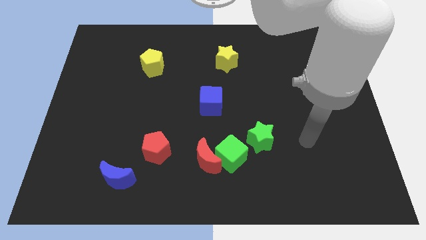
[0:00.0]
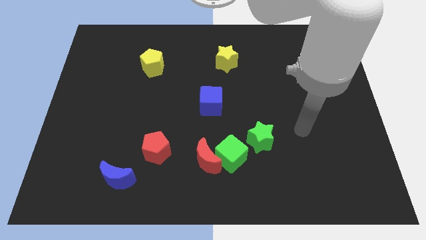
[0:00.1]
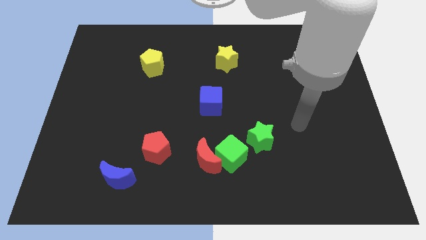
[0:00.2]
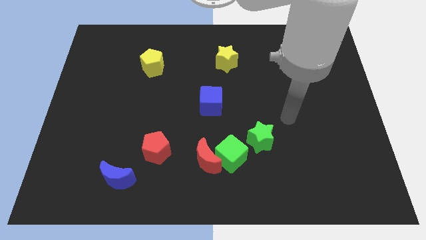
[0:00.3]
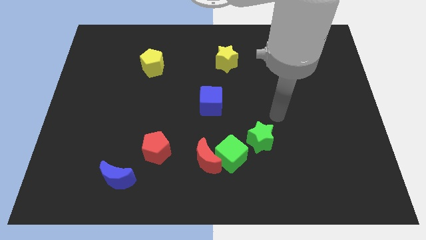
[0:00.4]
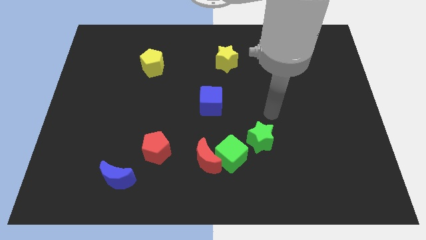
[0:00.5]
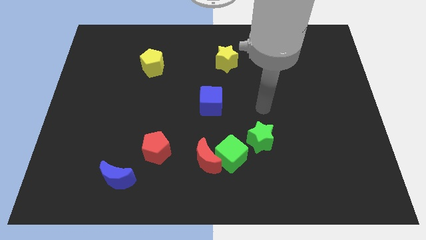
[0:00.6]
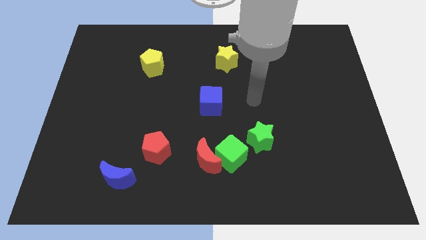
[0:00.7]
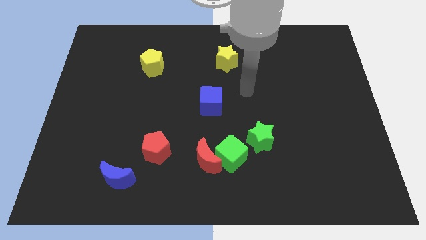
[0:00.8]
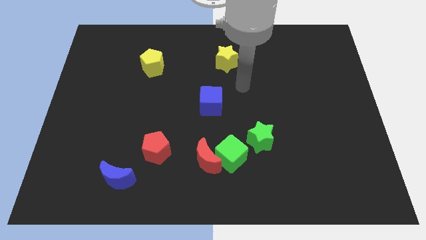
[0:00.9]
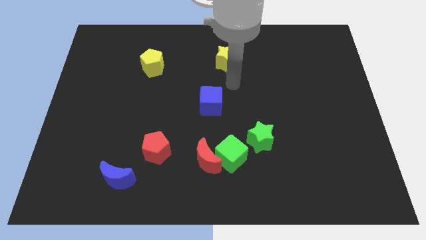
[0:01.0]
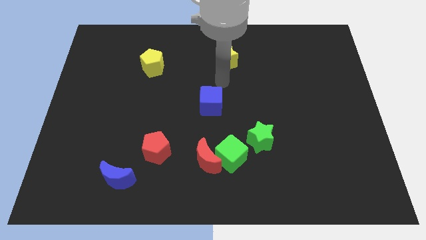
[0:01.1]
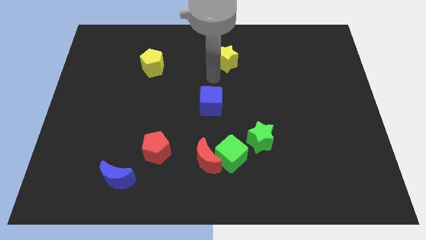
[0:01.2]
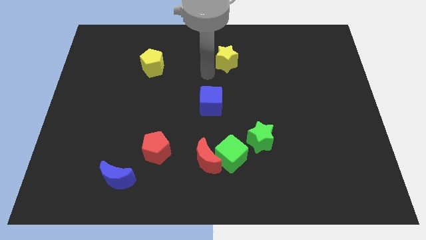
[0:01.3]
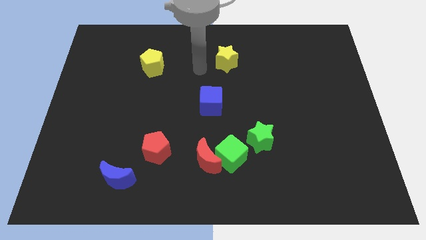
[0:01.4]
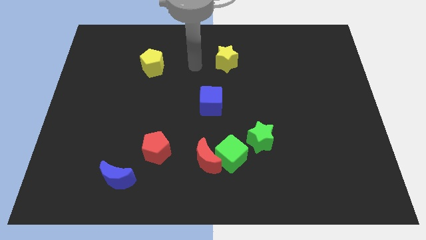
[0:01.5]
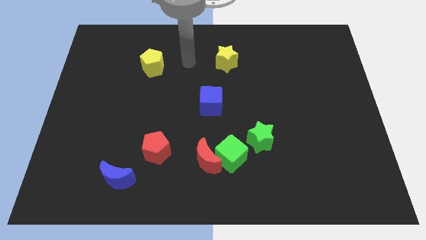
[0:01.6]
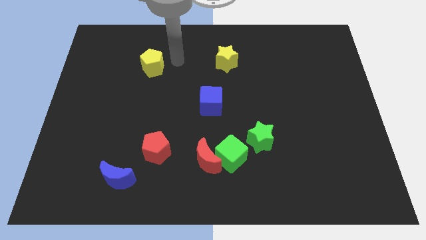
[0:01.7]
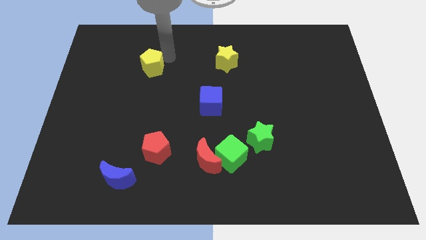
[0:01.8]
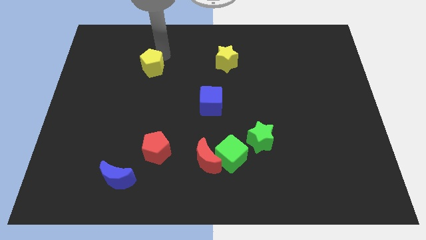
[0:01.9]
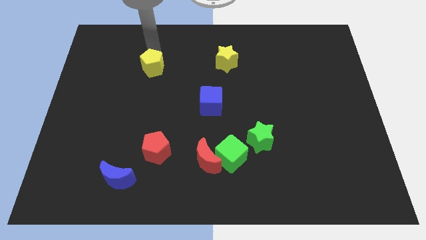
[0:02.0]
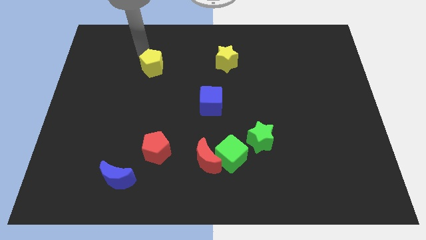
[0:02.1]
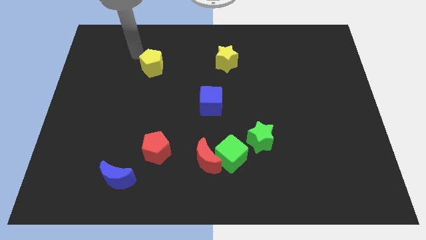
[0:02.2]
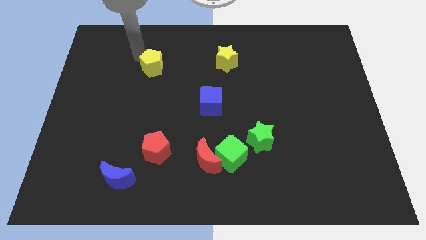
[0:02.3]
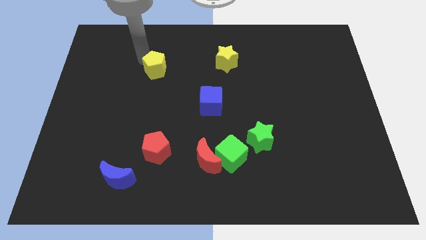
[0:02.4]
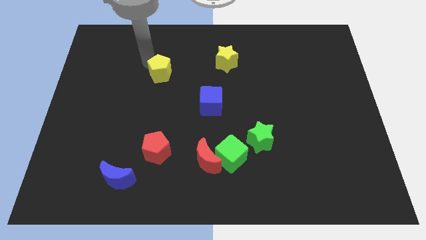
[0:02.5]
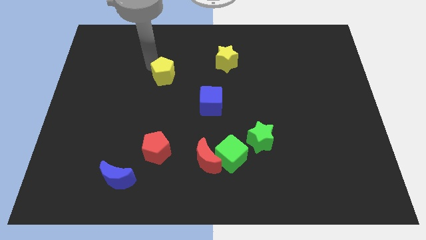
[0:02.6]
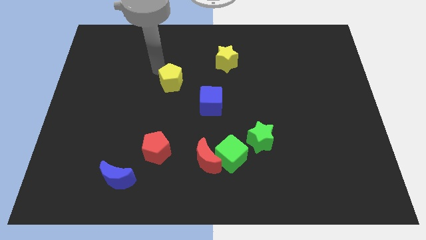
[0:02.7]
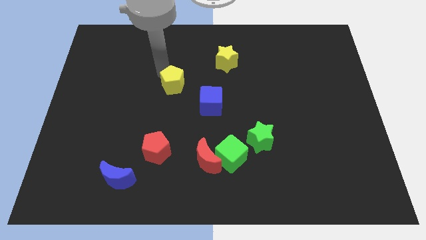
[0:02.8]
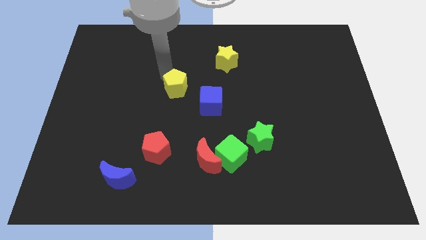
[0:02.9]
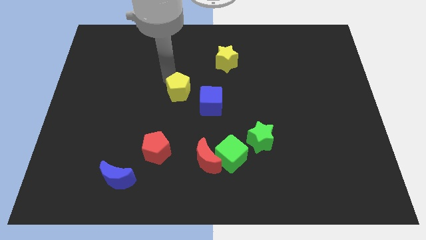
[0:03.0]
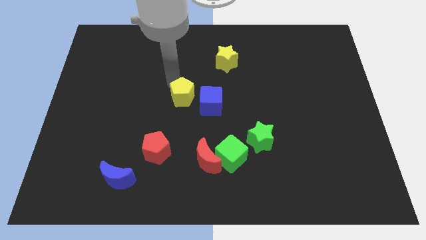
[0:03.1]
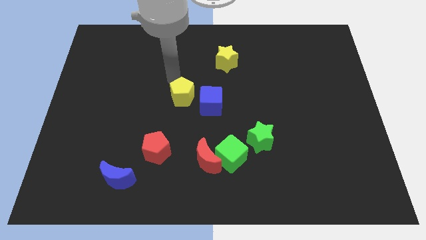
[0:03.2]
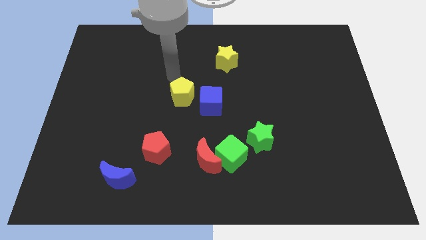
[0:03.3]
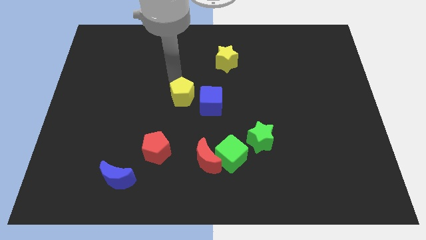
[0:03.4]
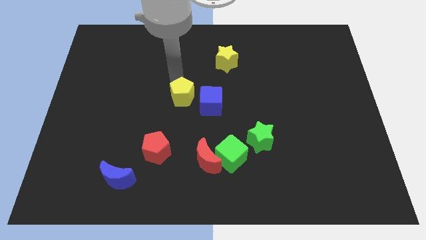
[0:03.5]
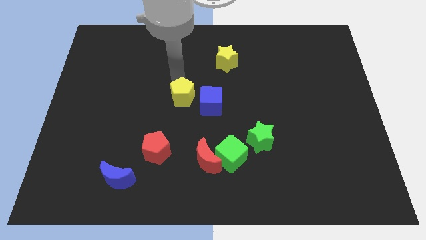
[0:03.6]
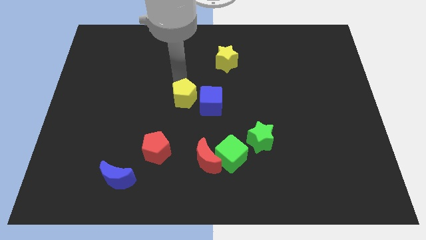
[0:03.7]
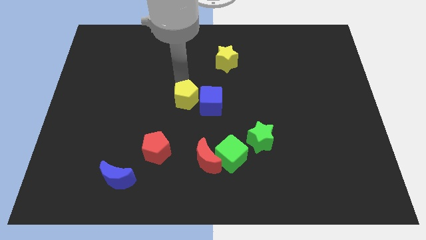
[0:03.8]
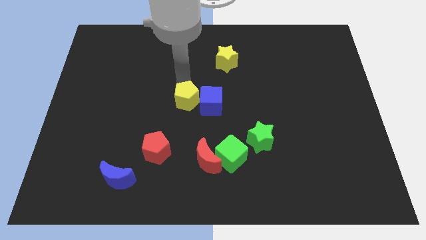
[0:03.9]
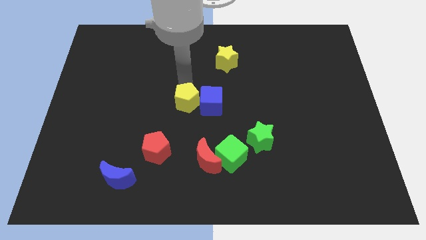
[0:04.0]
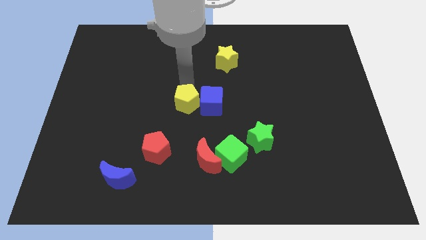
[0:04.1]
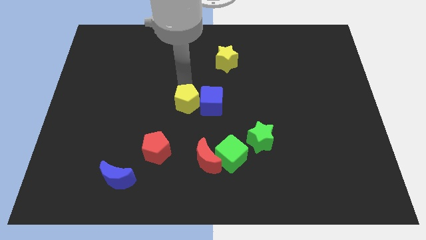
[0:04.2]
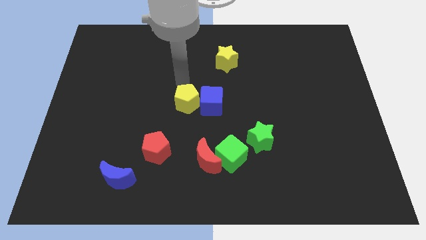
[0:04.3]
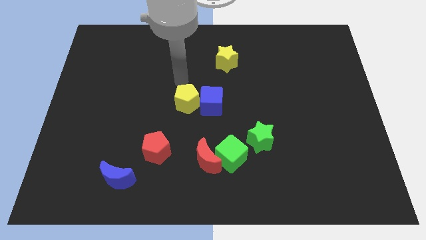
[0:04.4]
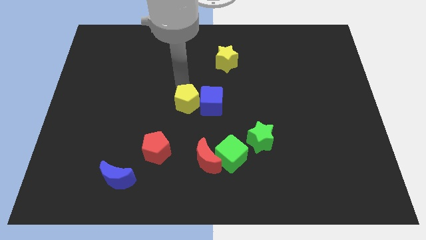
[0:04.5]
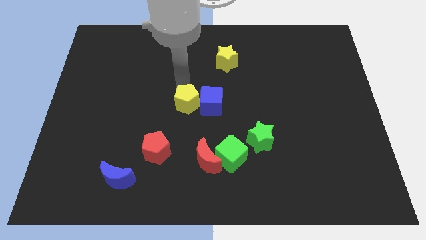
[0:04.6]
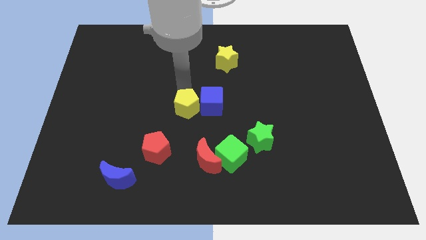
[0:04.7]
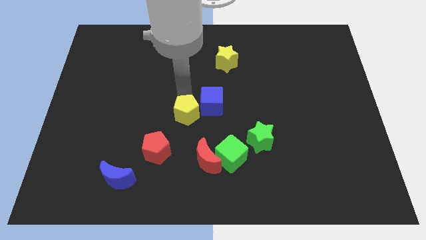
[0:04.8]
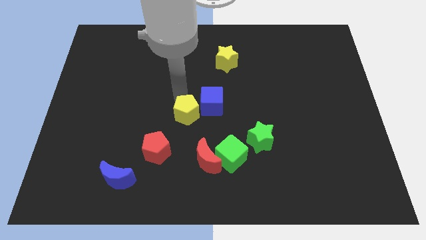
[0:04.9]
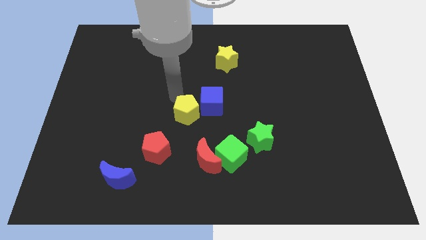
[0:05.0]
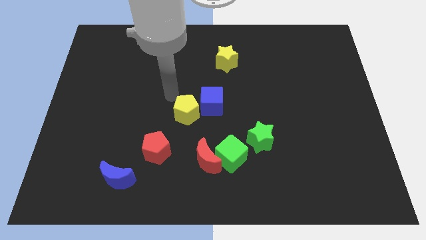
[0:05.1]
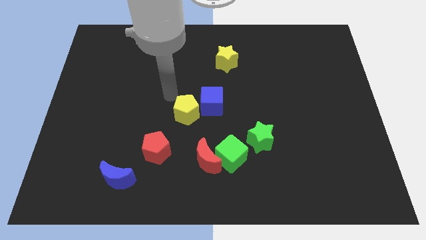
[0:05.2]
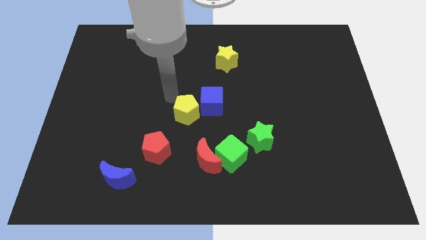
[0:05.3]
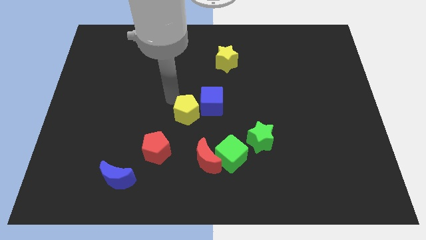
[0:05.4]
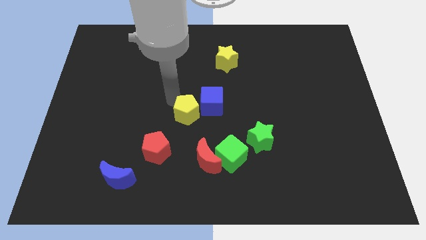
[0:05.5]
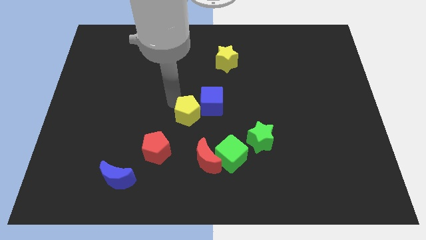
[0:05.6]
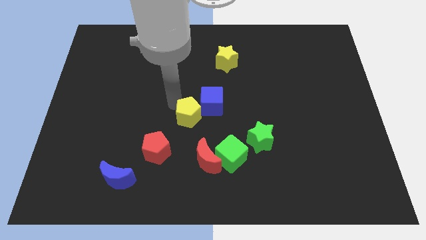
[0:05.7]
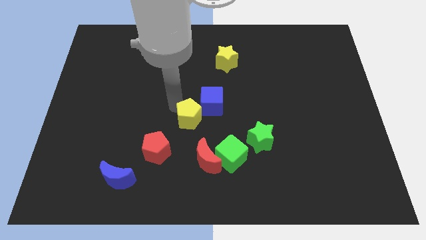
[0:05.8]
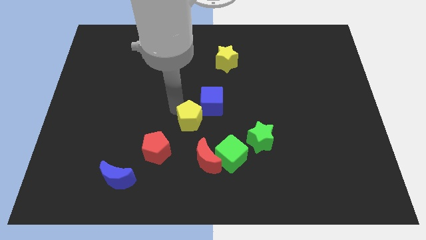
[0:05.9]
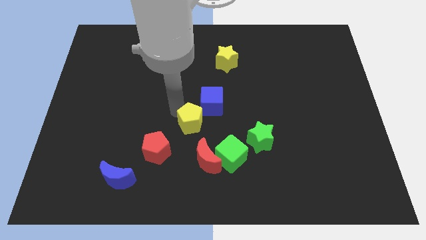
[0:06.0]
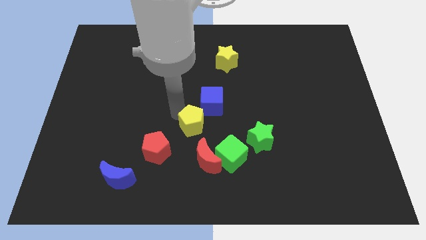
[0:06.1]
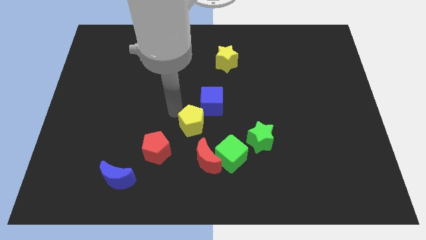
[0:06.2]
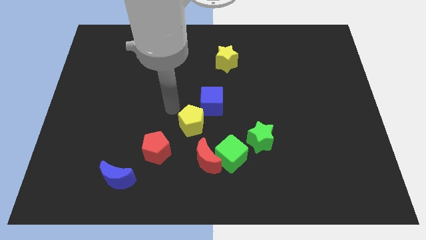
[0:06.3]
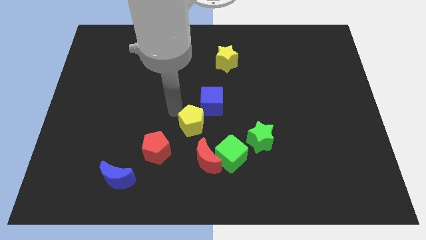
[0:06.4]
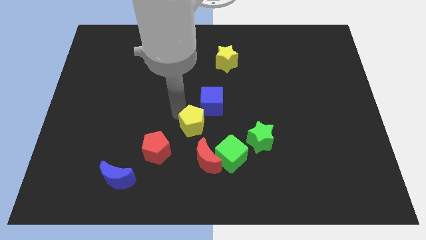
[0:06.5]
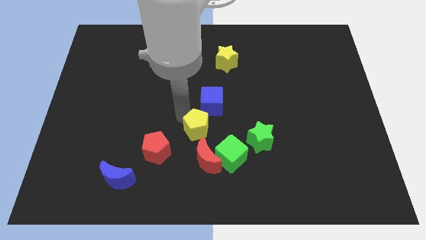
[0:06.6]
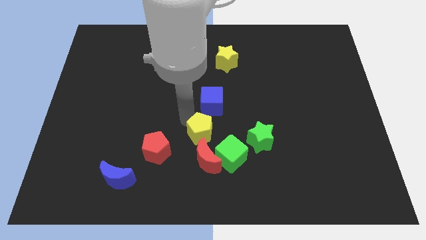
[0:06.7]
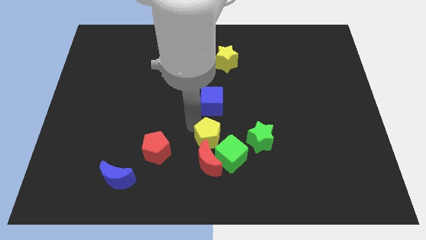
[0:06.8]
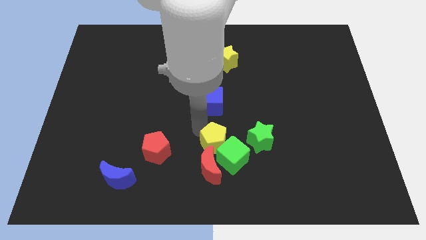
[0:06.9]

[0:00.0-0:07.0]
push the yellow pentagon close to the green cube

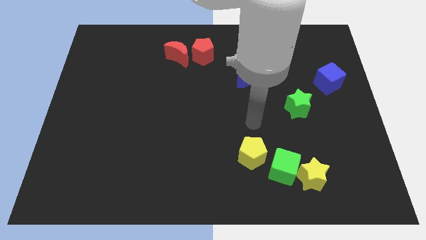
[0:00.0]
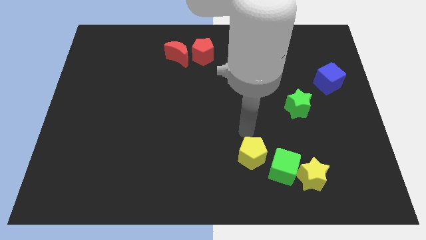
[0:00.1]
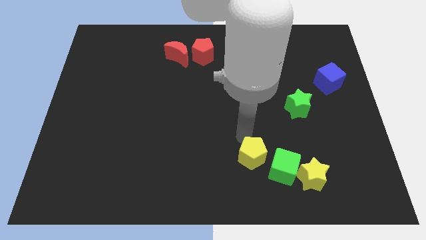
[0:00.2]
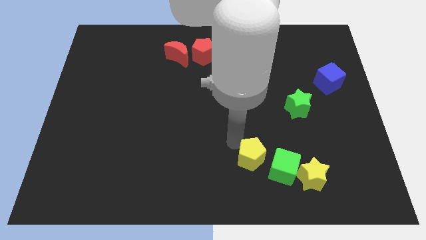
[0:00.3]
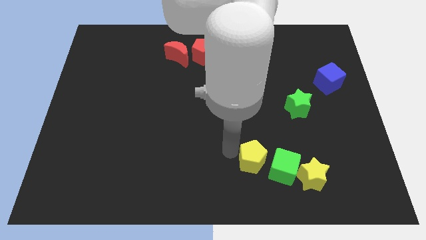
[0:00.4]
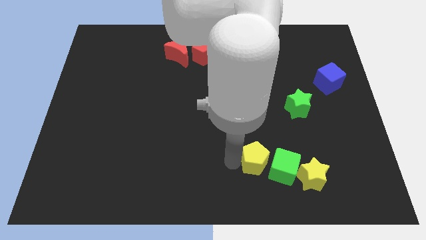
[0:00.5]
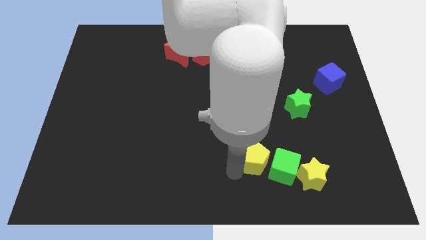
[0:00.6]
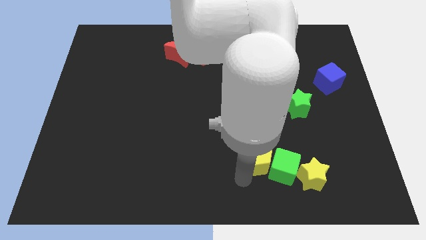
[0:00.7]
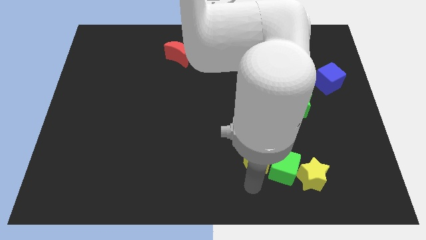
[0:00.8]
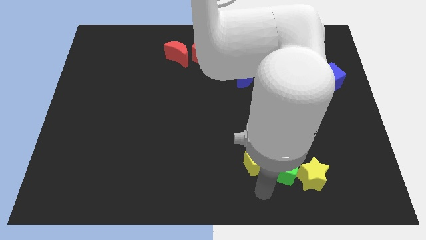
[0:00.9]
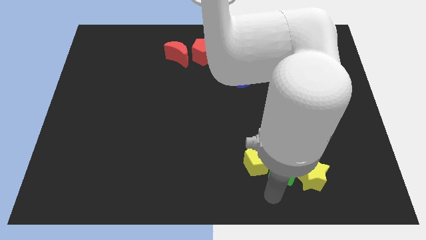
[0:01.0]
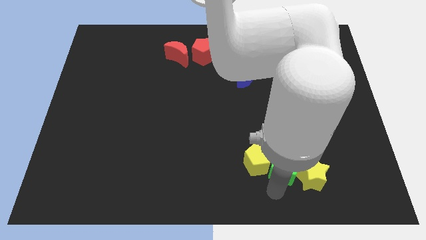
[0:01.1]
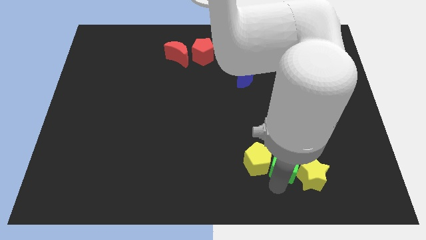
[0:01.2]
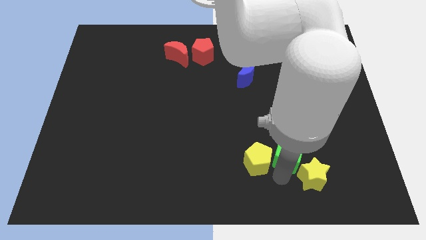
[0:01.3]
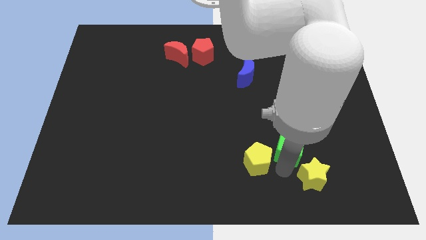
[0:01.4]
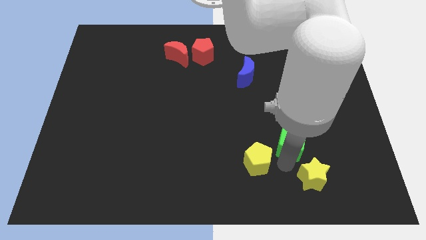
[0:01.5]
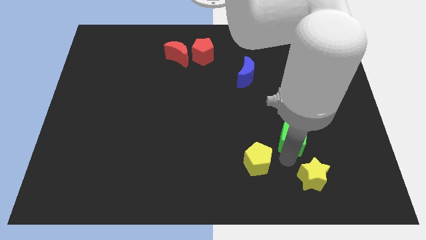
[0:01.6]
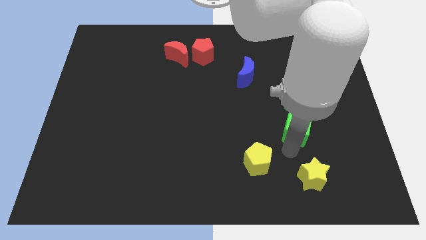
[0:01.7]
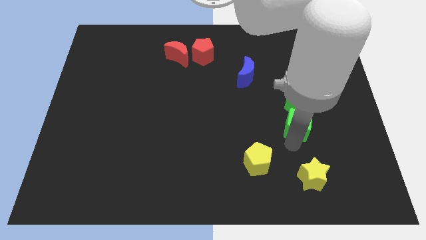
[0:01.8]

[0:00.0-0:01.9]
move the green cube towards the green star
